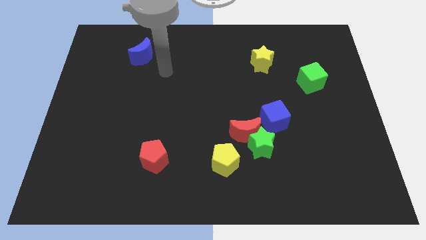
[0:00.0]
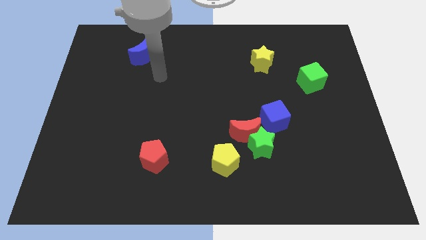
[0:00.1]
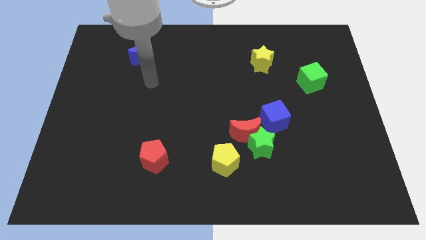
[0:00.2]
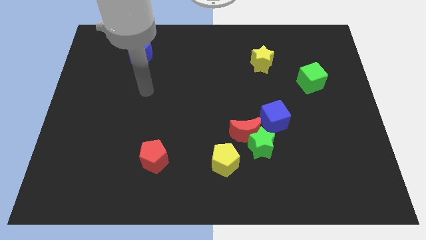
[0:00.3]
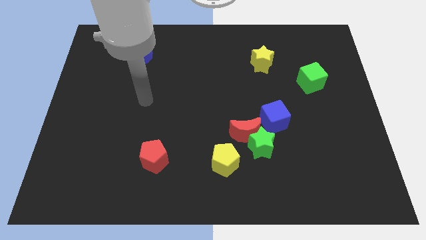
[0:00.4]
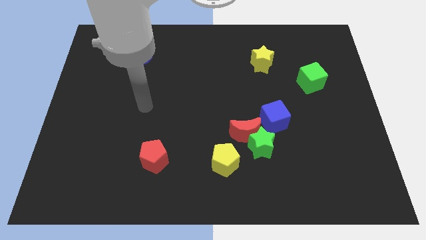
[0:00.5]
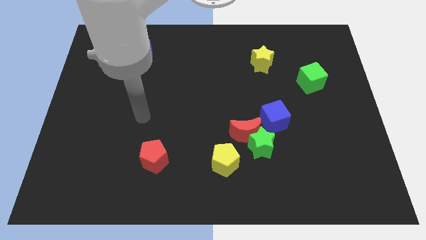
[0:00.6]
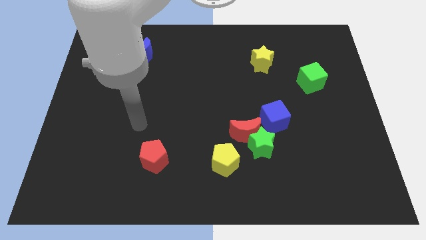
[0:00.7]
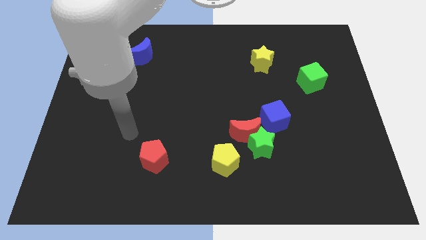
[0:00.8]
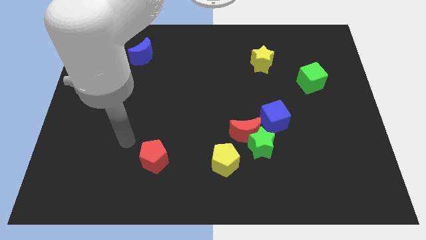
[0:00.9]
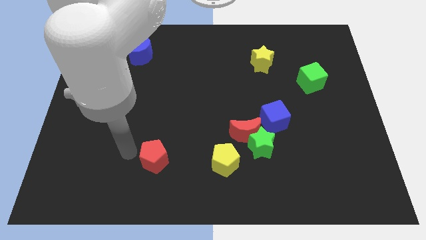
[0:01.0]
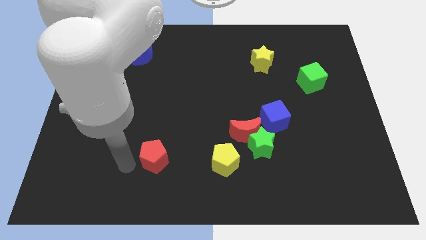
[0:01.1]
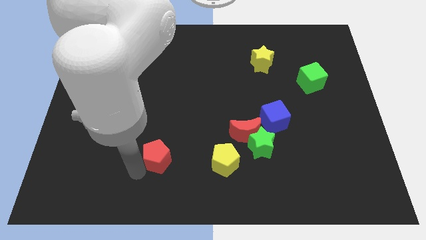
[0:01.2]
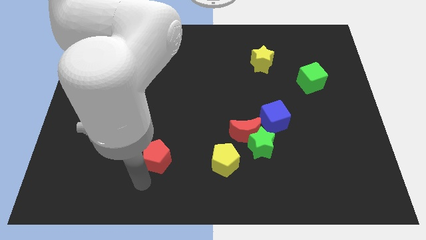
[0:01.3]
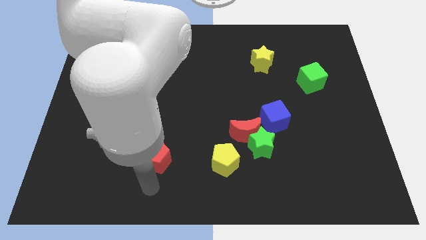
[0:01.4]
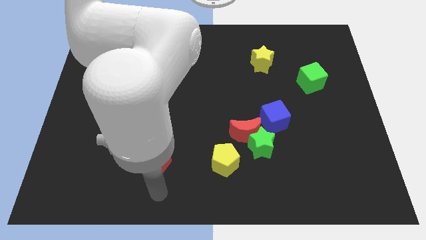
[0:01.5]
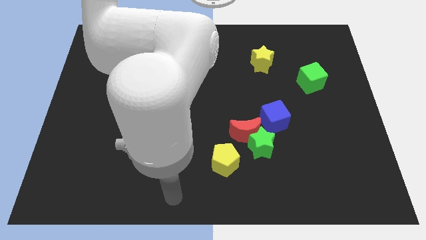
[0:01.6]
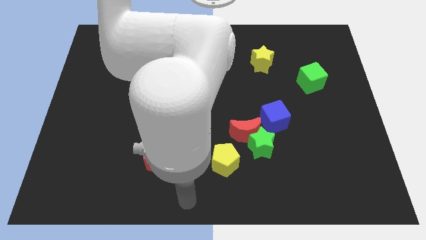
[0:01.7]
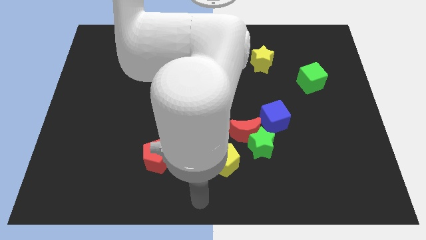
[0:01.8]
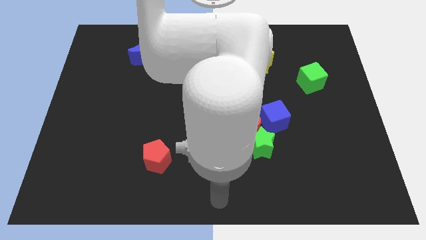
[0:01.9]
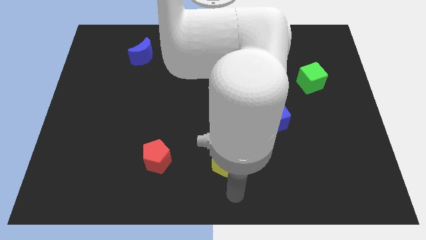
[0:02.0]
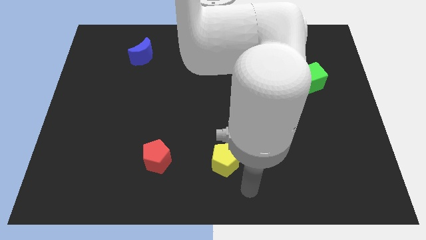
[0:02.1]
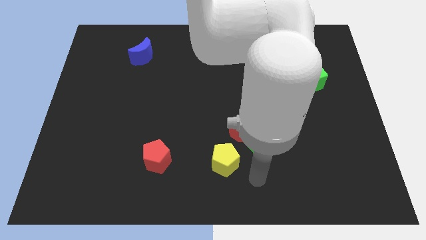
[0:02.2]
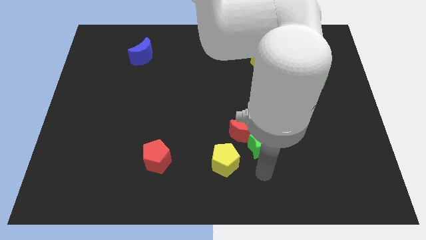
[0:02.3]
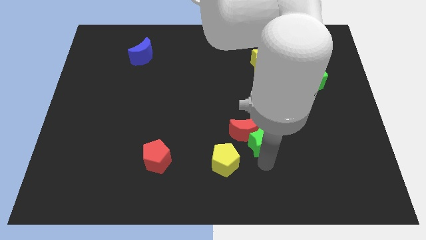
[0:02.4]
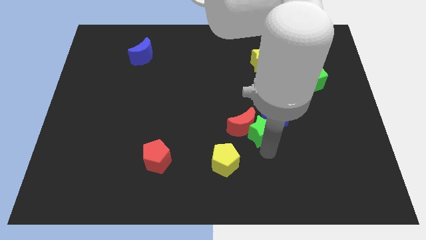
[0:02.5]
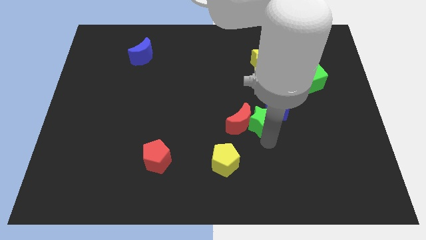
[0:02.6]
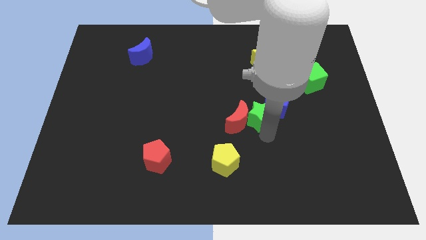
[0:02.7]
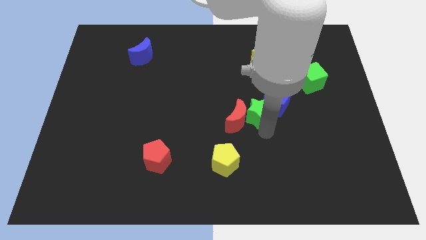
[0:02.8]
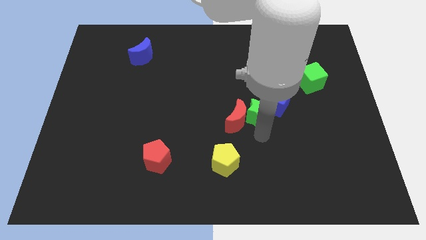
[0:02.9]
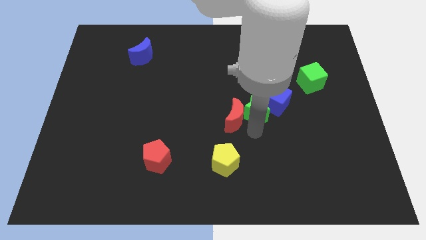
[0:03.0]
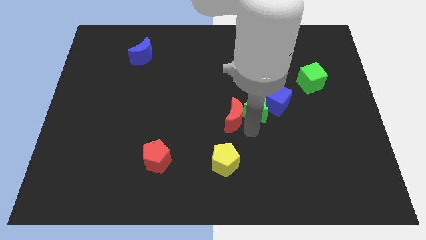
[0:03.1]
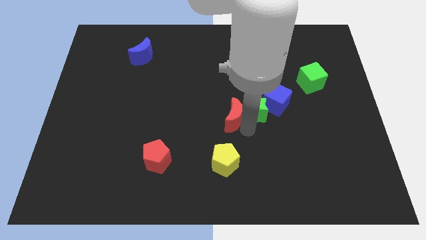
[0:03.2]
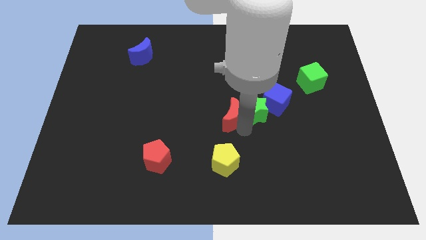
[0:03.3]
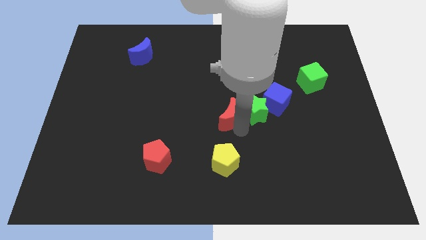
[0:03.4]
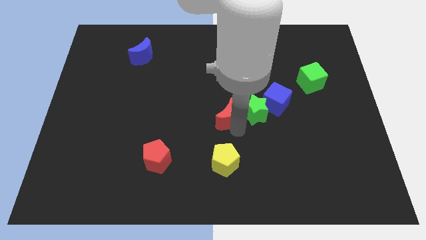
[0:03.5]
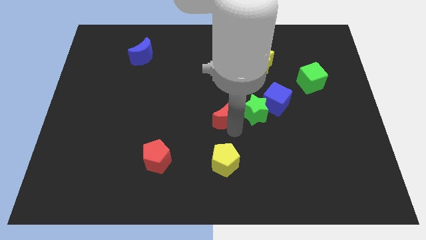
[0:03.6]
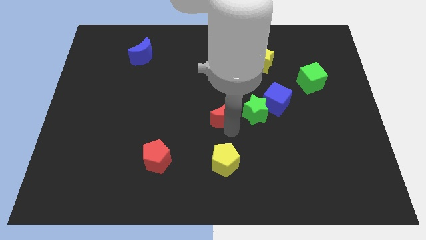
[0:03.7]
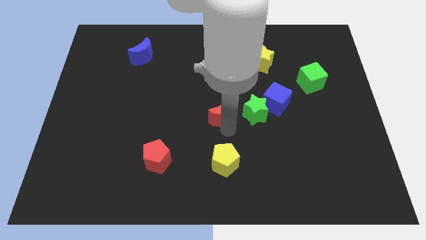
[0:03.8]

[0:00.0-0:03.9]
push the red moon up and left slightly

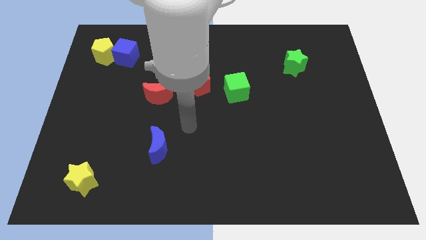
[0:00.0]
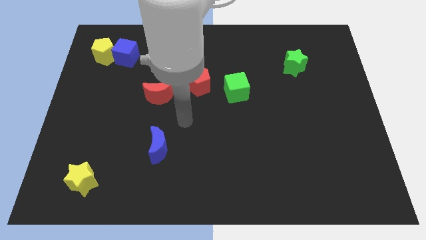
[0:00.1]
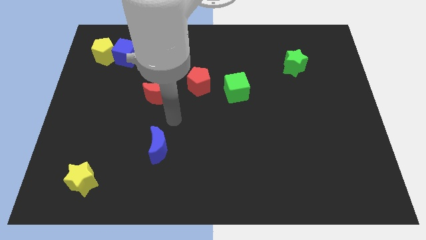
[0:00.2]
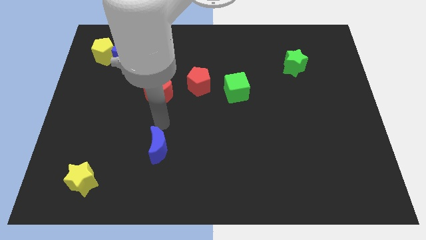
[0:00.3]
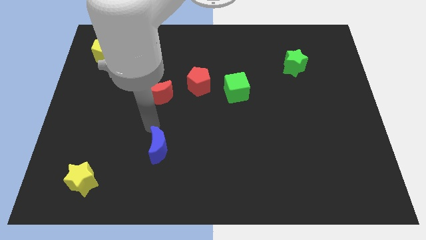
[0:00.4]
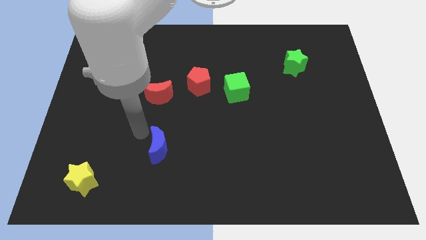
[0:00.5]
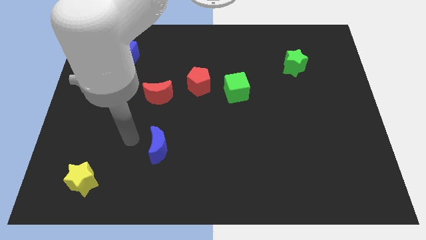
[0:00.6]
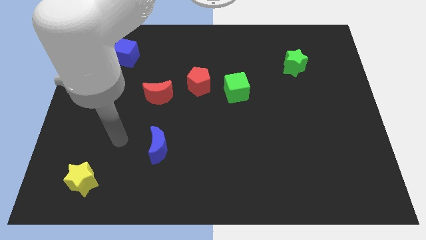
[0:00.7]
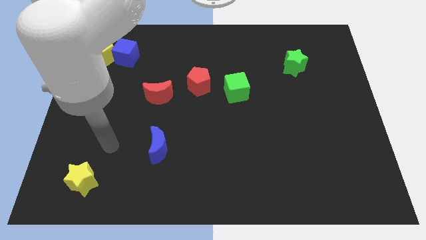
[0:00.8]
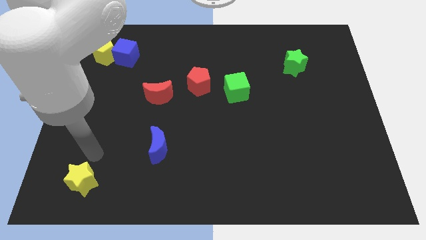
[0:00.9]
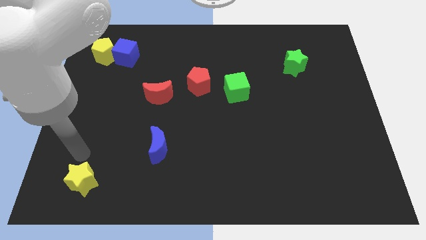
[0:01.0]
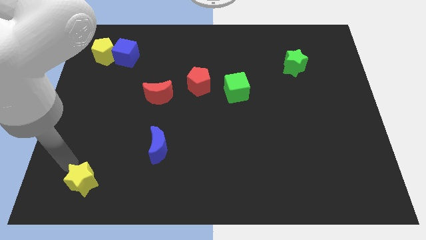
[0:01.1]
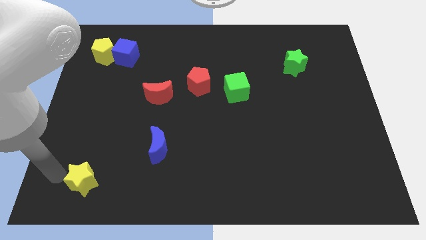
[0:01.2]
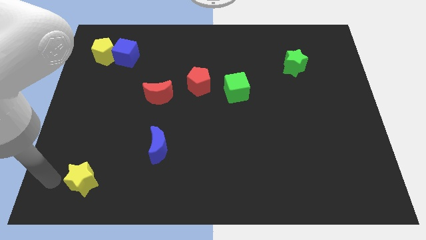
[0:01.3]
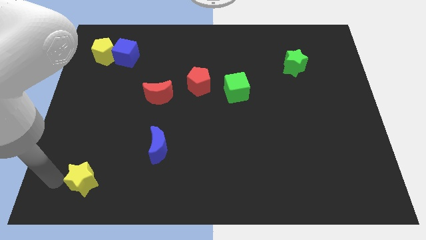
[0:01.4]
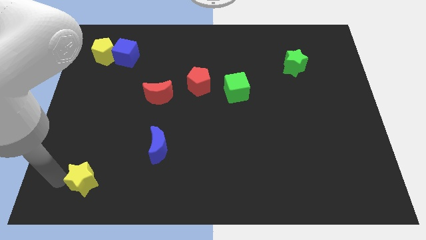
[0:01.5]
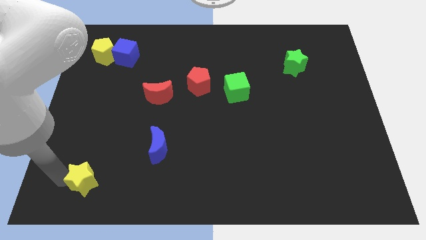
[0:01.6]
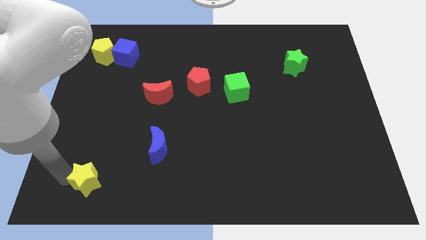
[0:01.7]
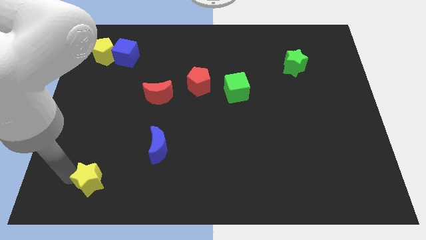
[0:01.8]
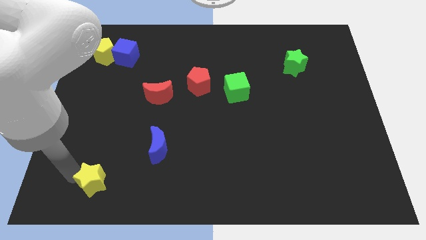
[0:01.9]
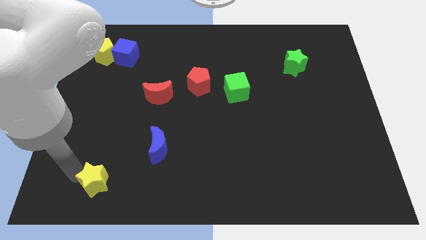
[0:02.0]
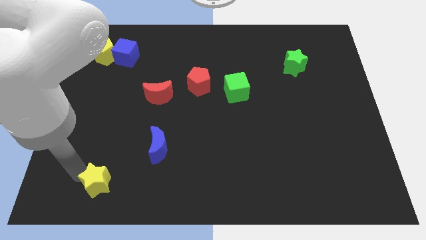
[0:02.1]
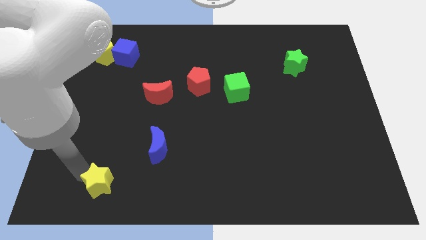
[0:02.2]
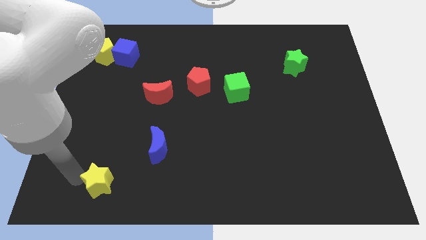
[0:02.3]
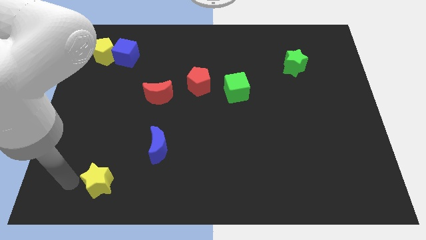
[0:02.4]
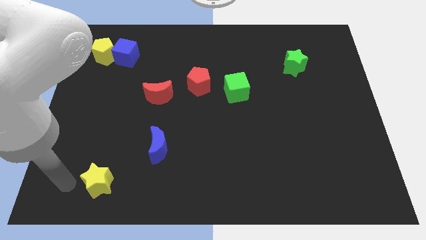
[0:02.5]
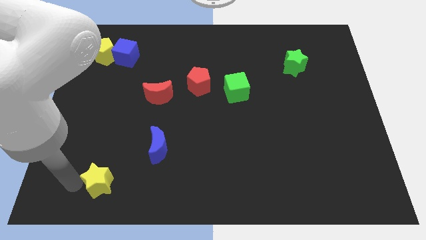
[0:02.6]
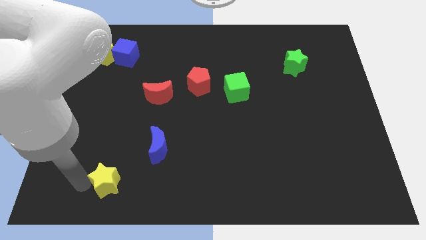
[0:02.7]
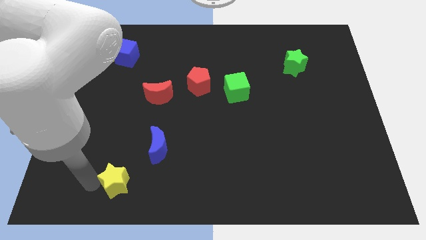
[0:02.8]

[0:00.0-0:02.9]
slide the yellow star right slightly

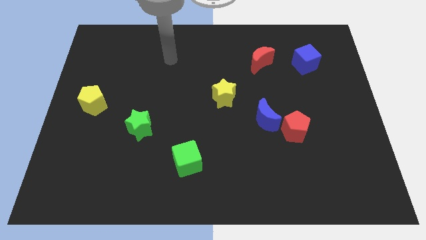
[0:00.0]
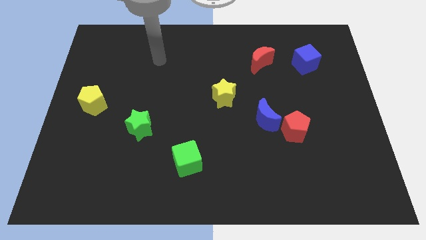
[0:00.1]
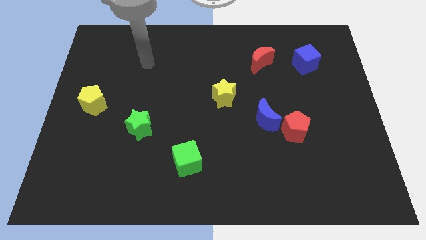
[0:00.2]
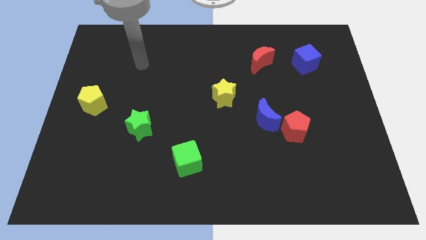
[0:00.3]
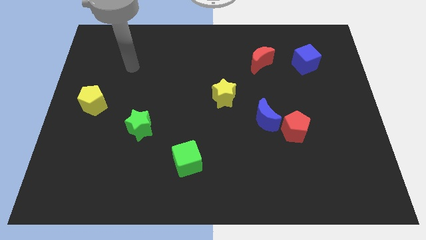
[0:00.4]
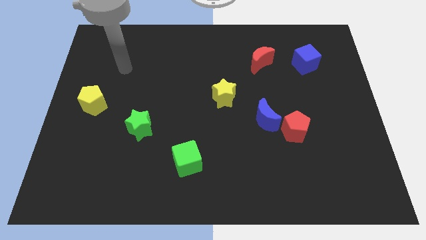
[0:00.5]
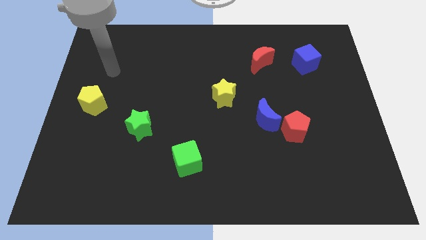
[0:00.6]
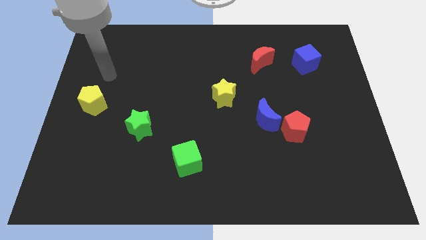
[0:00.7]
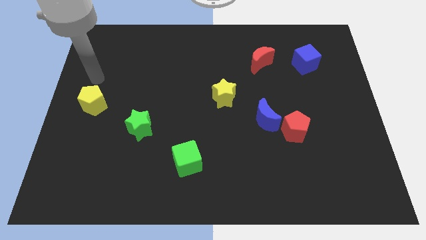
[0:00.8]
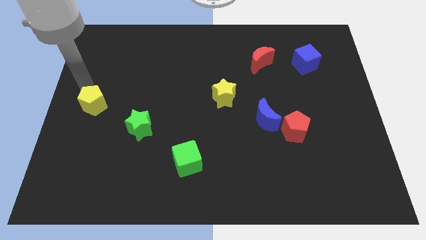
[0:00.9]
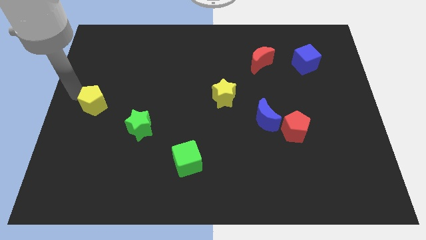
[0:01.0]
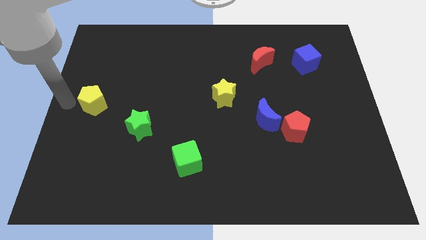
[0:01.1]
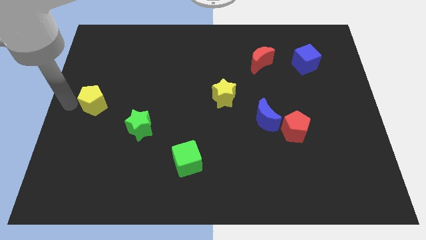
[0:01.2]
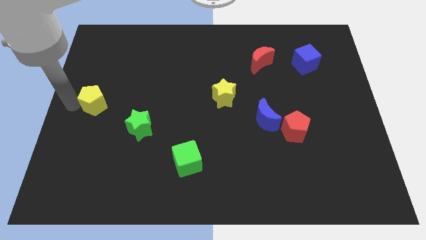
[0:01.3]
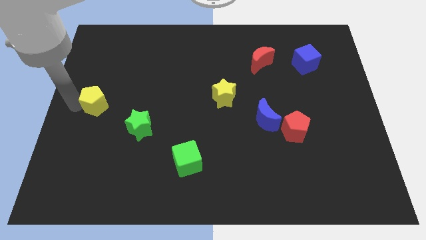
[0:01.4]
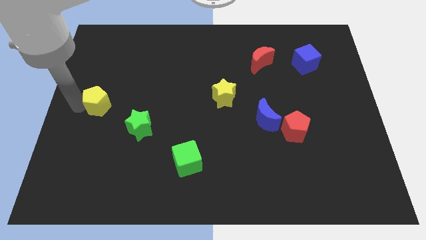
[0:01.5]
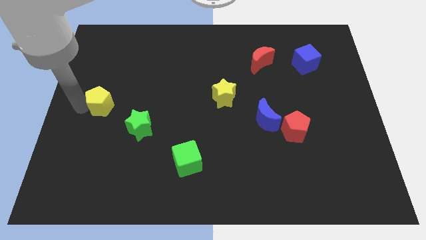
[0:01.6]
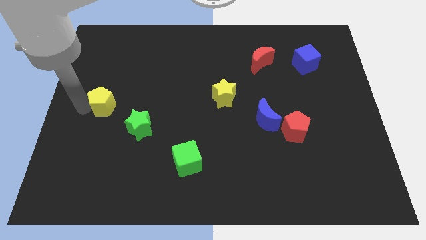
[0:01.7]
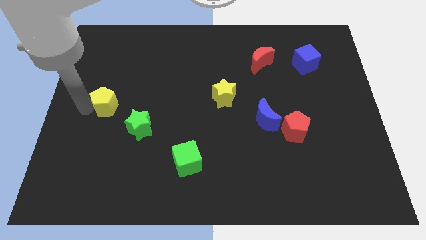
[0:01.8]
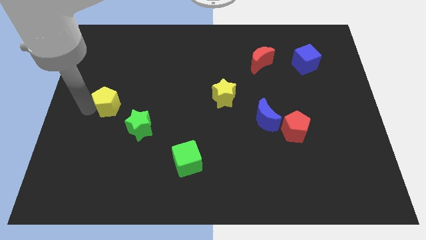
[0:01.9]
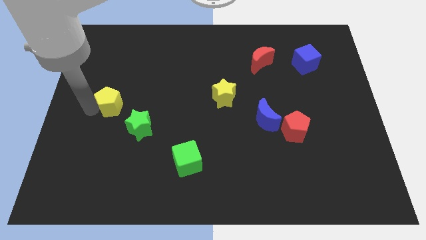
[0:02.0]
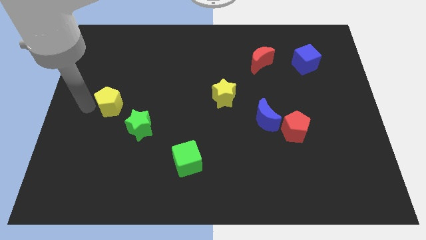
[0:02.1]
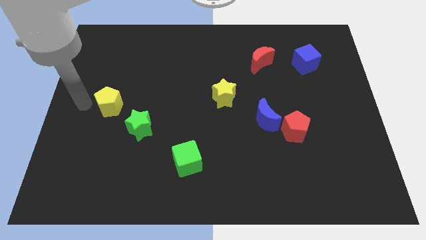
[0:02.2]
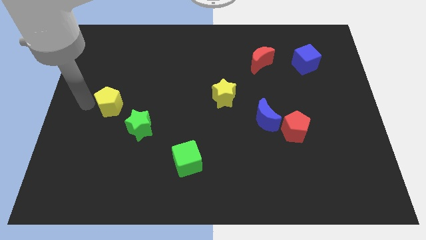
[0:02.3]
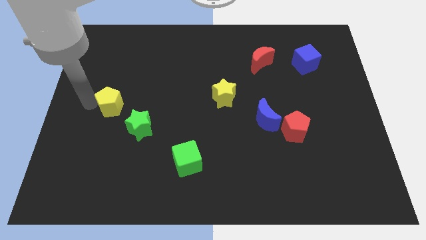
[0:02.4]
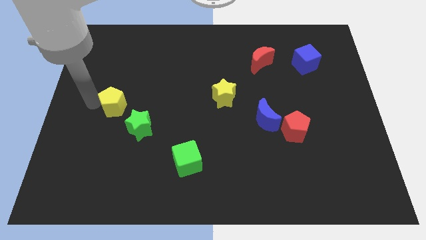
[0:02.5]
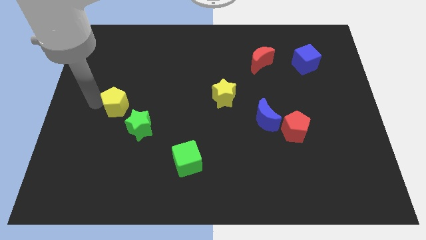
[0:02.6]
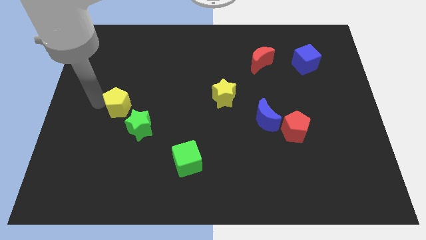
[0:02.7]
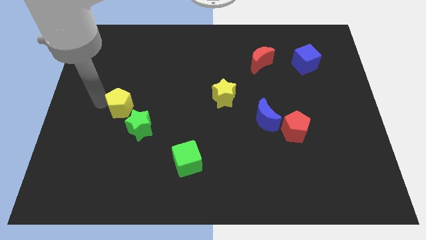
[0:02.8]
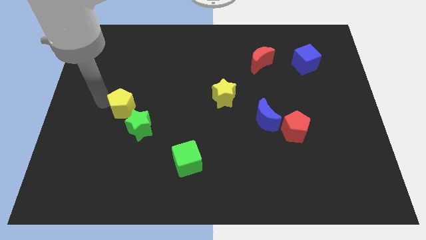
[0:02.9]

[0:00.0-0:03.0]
move the yellow pentagon right a little bit
